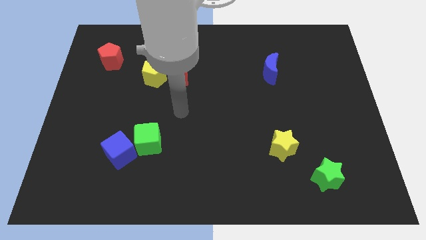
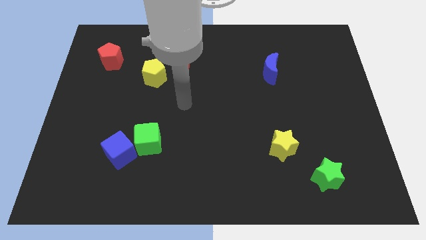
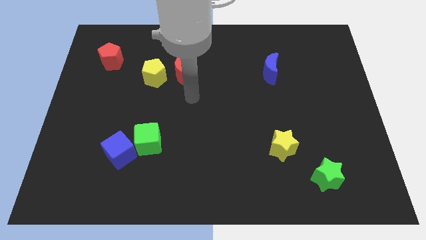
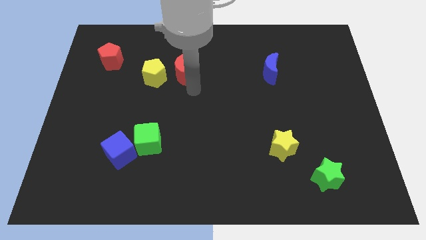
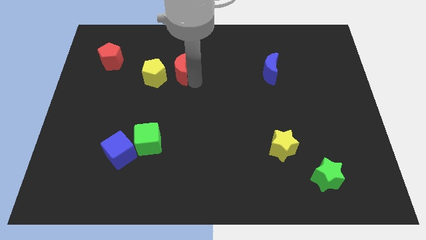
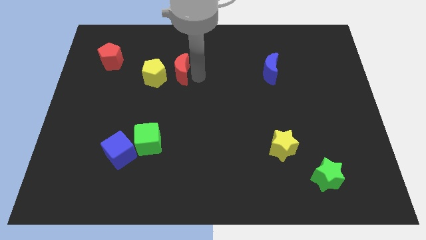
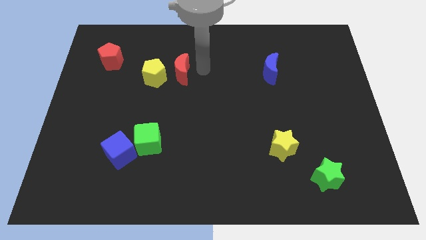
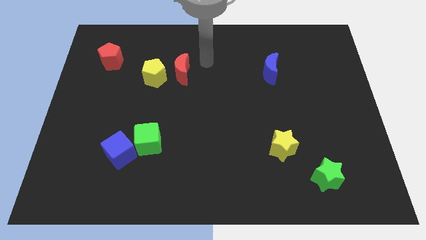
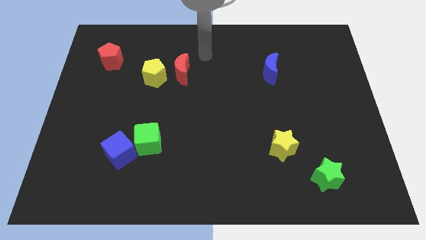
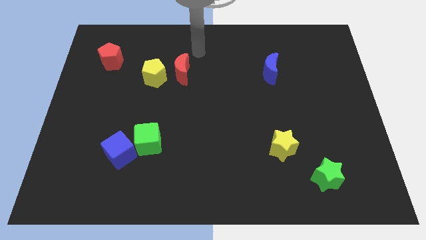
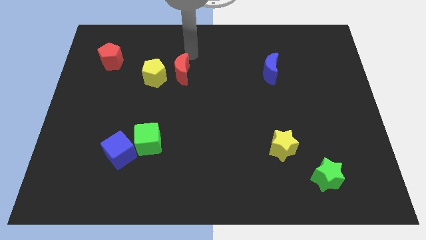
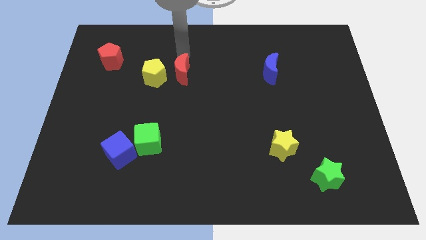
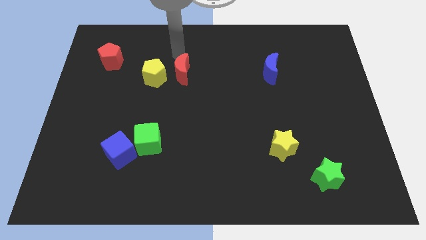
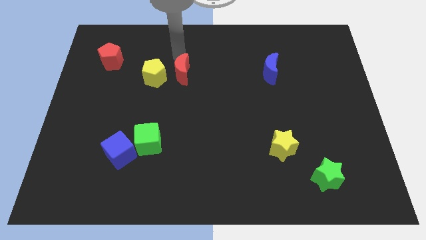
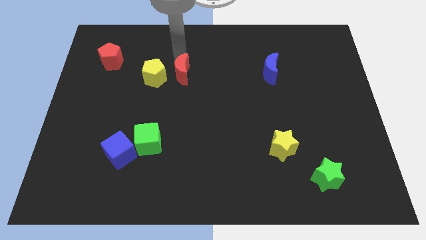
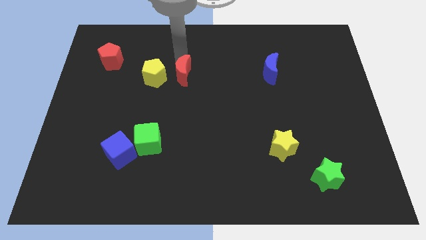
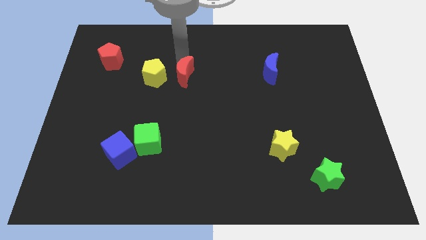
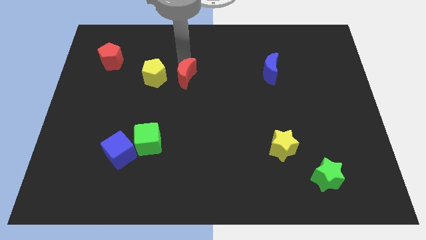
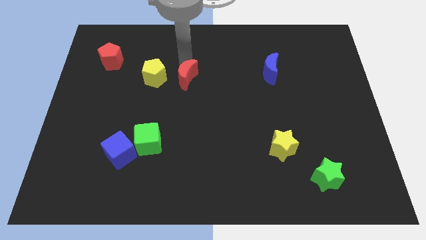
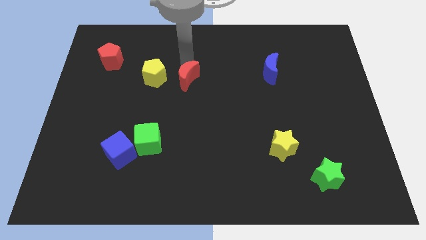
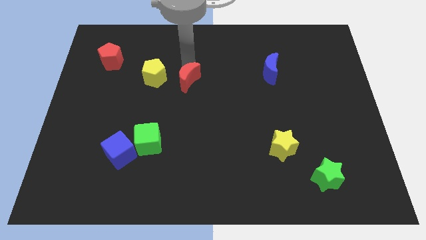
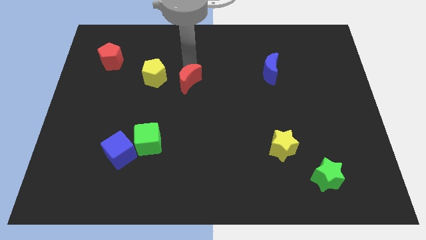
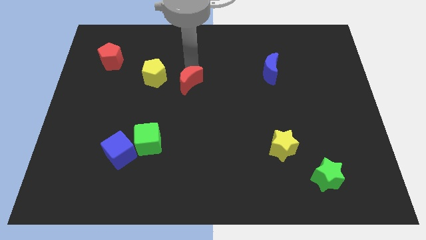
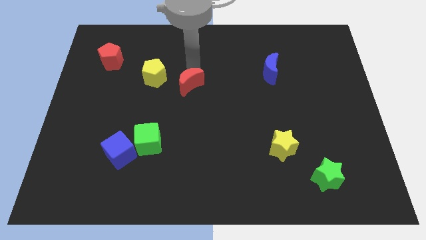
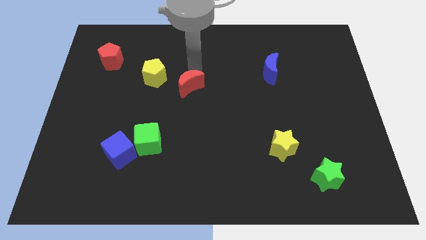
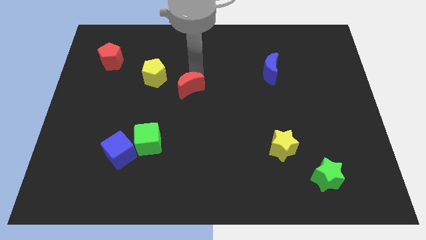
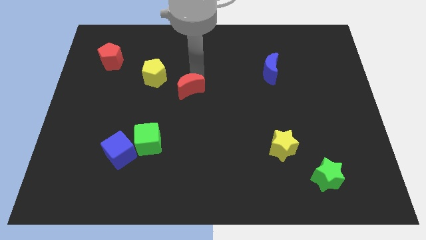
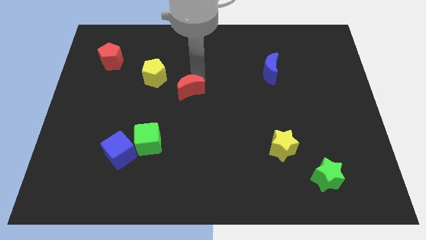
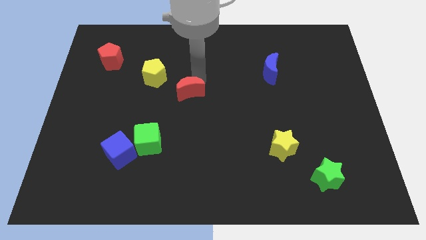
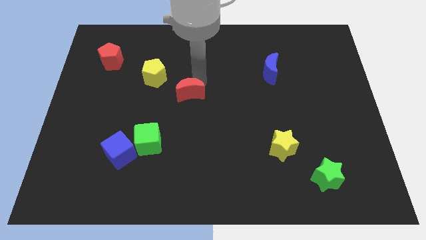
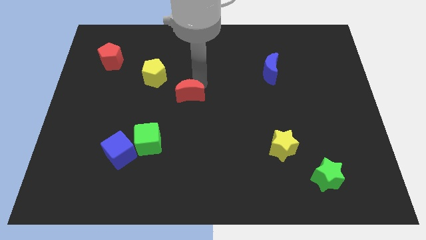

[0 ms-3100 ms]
push the red moon down somewhat

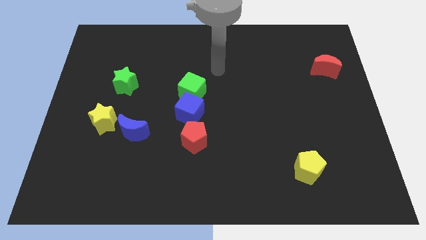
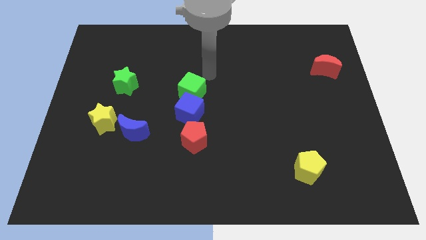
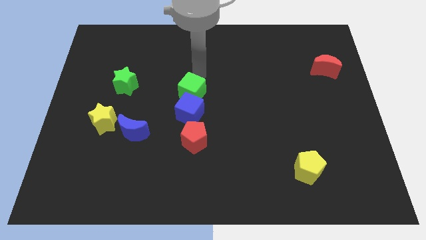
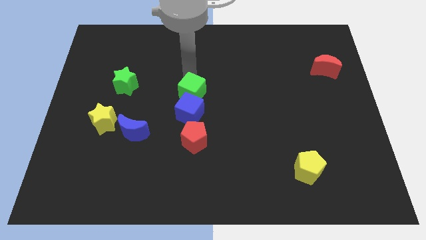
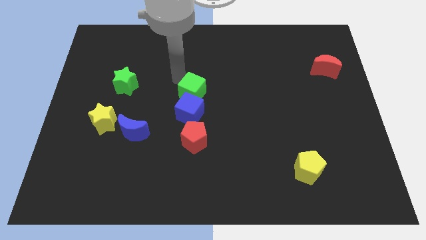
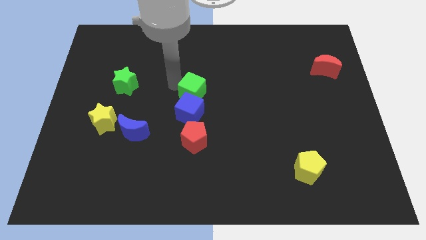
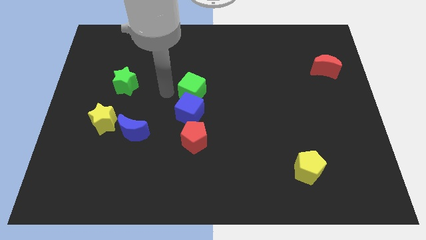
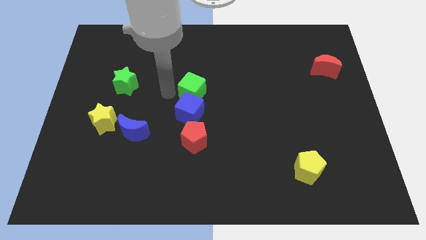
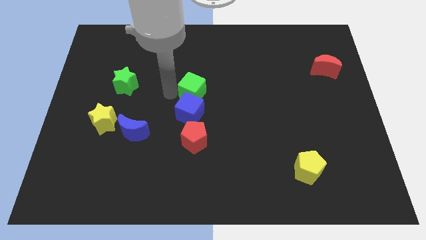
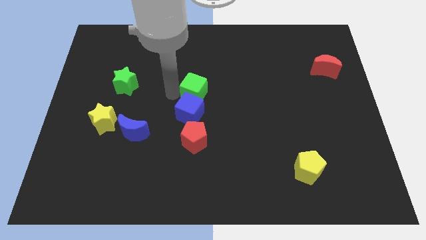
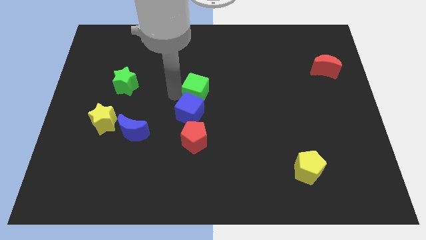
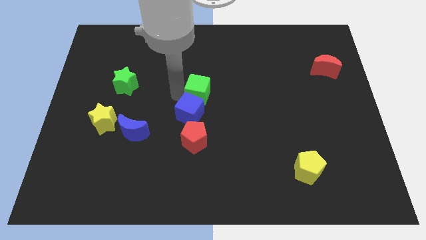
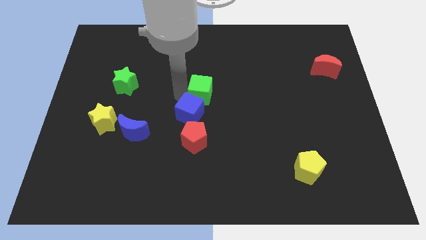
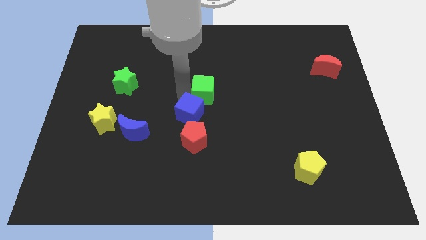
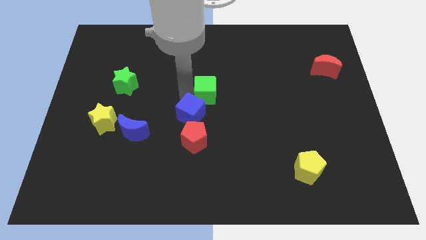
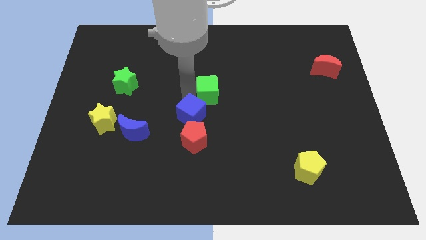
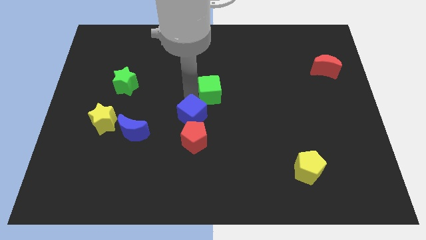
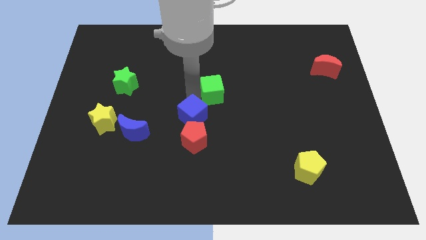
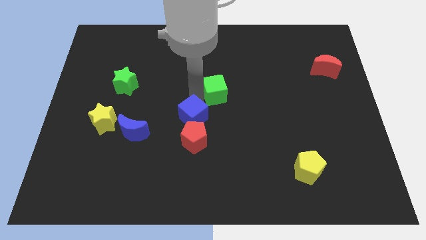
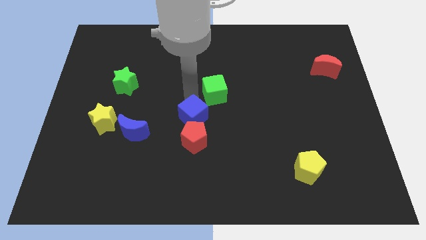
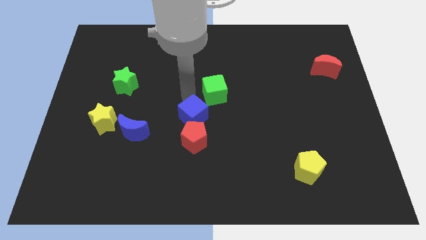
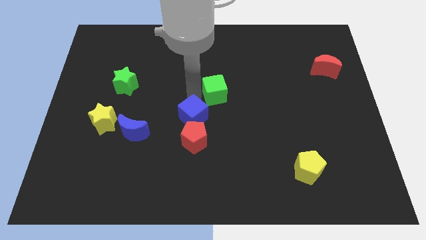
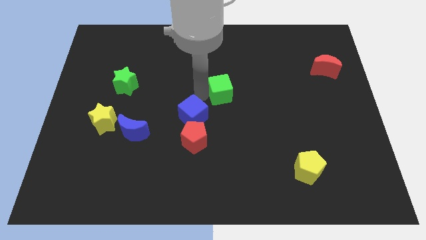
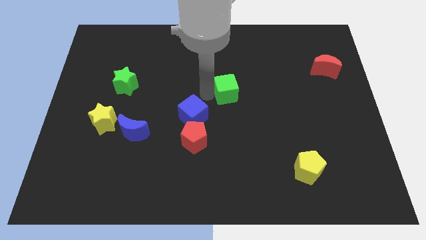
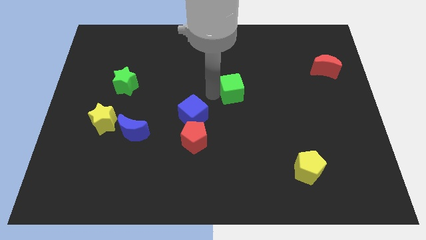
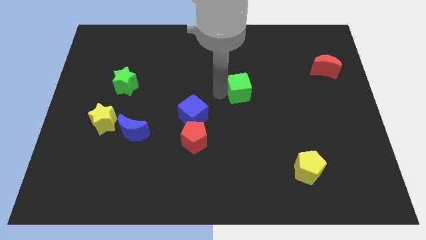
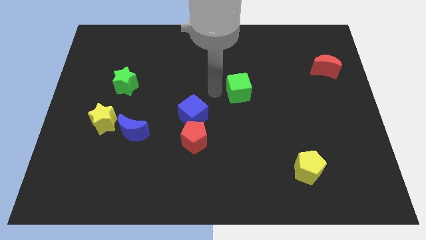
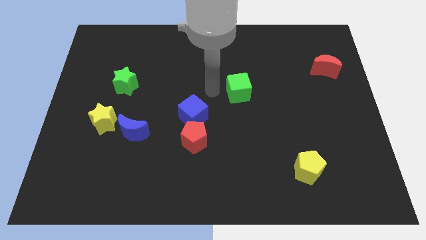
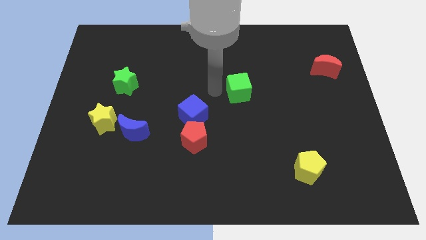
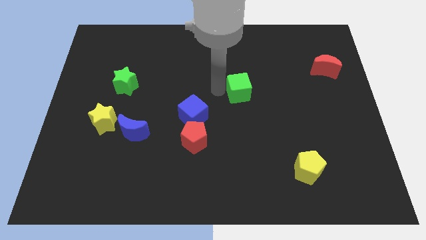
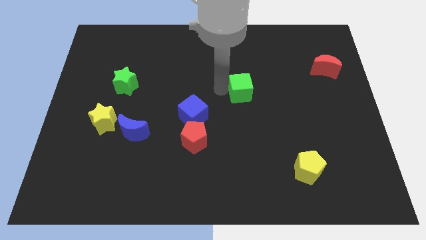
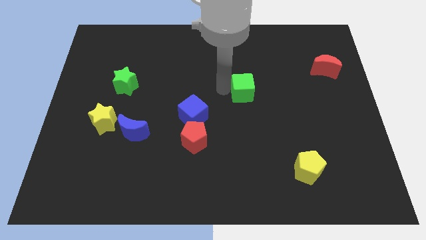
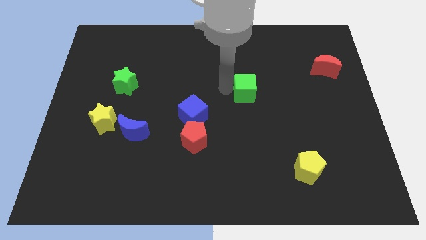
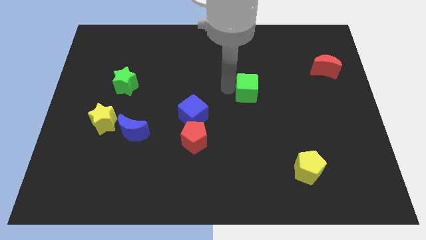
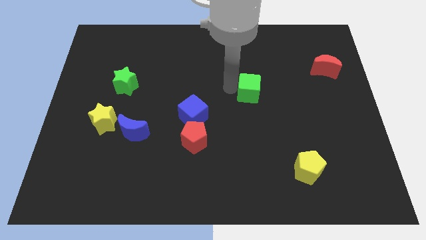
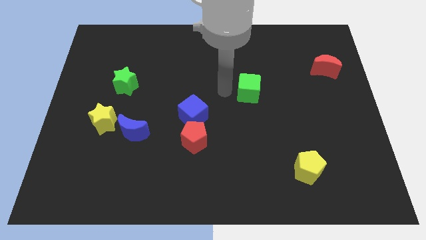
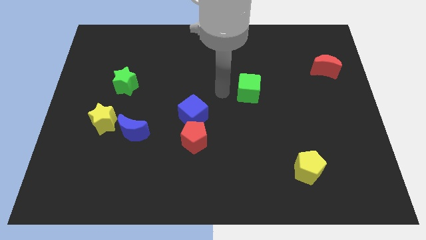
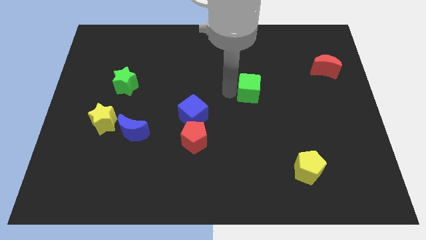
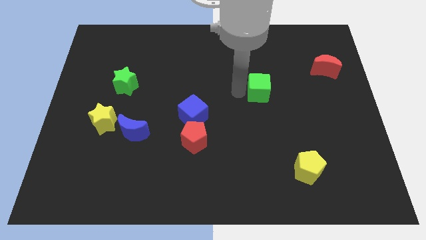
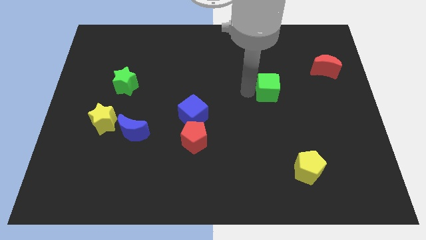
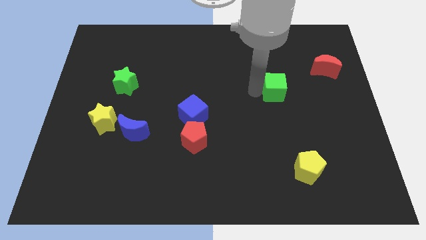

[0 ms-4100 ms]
move the green cube right

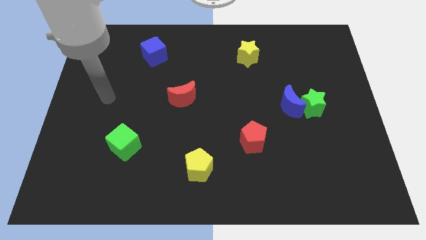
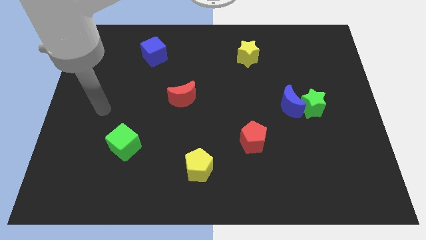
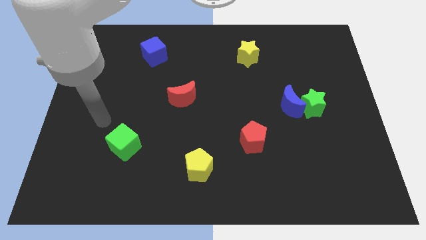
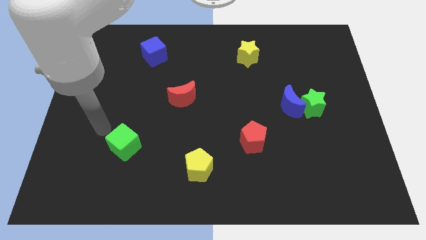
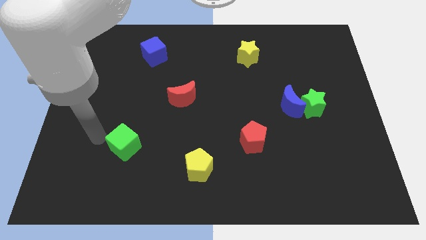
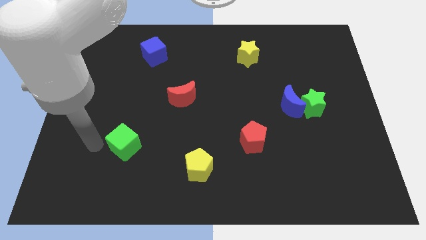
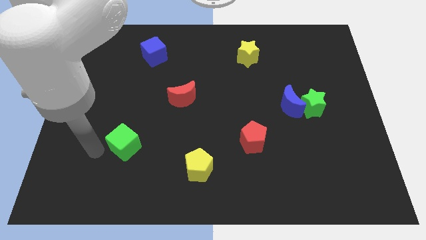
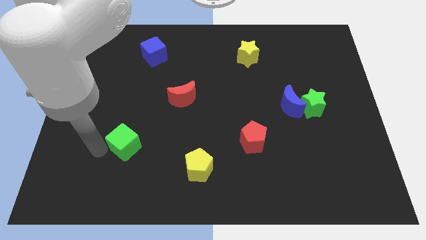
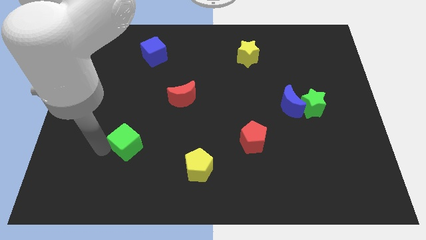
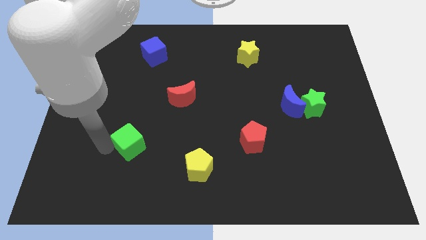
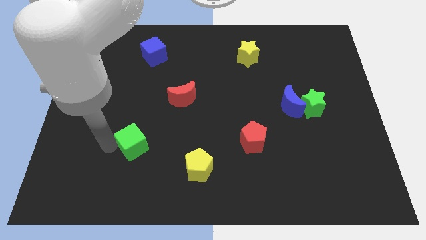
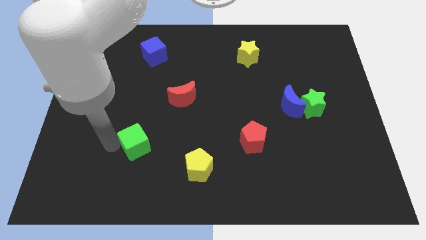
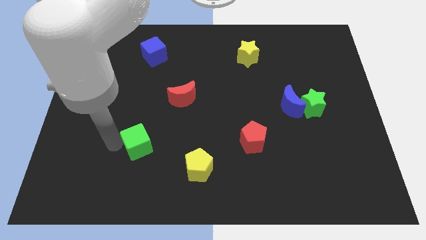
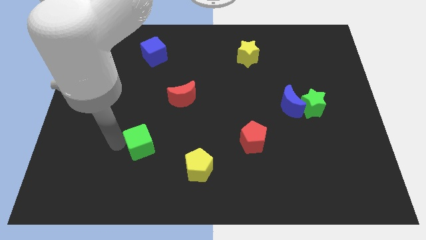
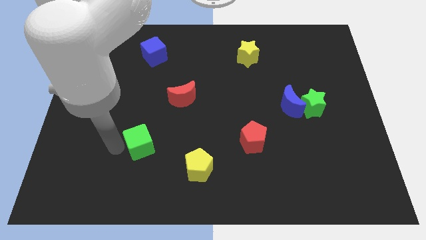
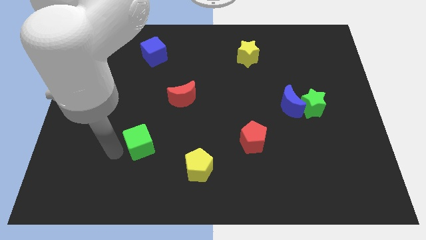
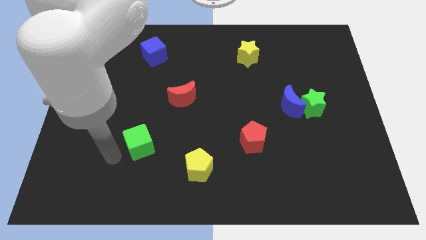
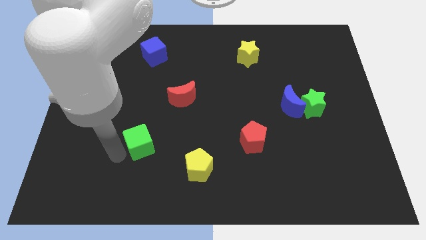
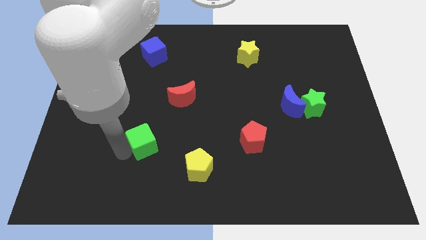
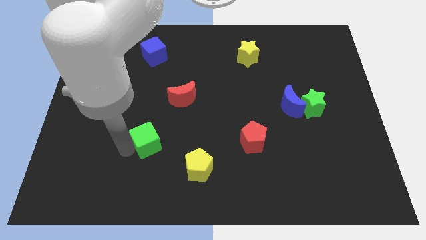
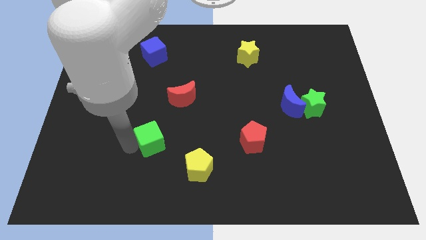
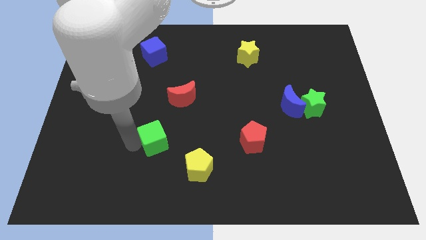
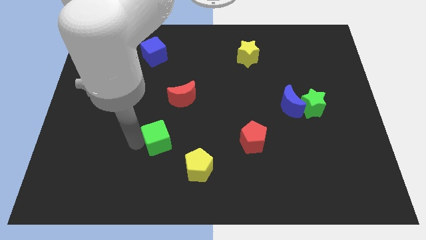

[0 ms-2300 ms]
slide the green cube to the right a bit
